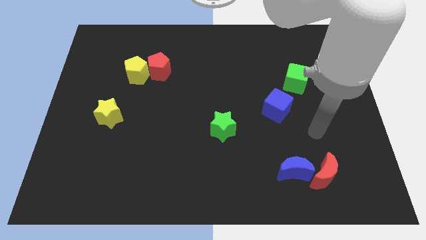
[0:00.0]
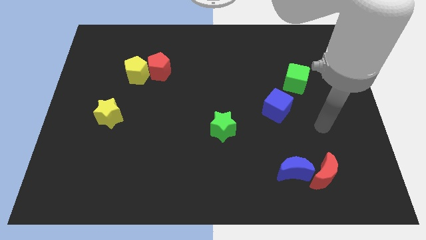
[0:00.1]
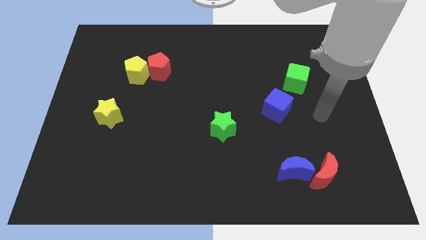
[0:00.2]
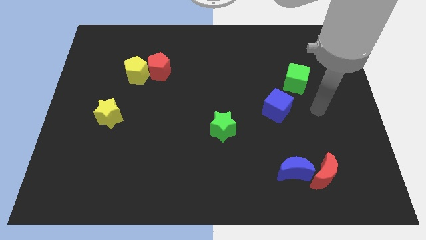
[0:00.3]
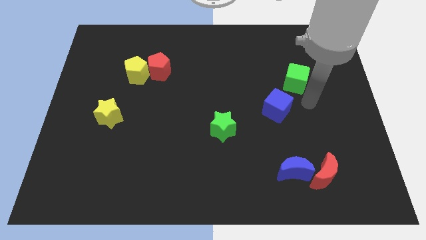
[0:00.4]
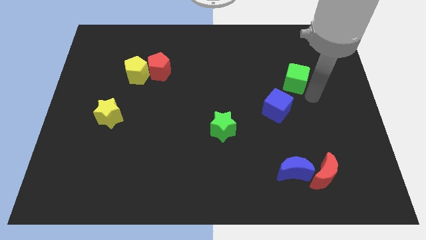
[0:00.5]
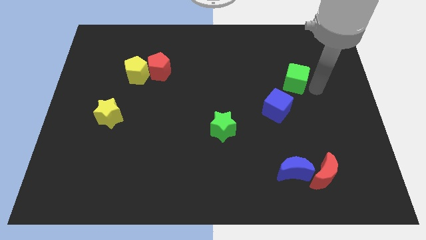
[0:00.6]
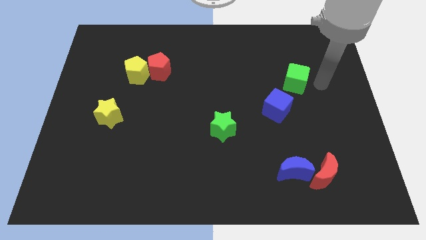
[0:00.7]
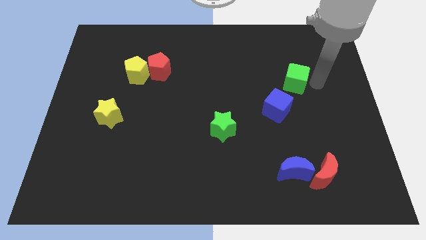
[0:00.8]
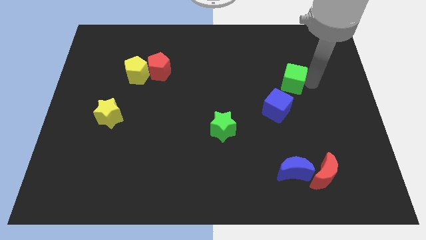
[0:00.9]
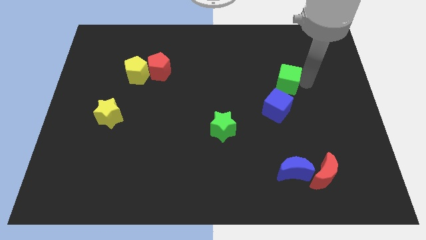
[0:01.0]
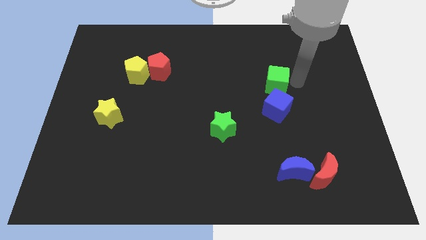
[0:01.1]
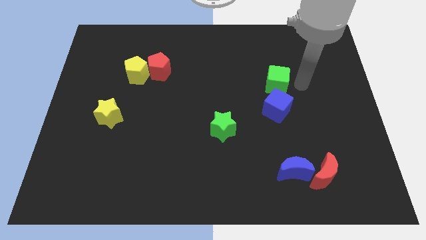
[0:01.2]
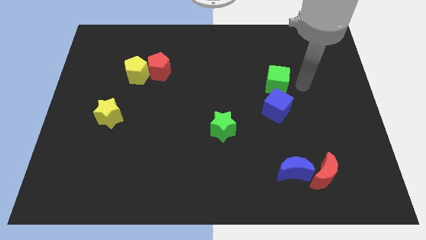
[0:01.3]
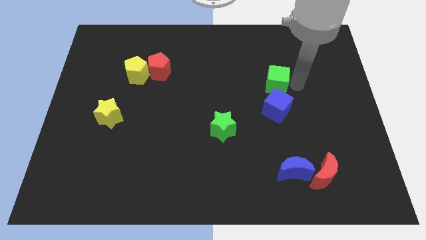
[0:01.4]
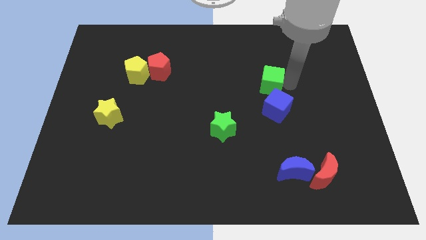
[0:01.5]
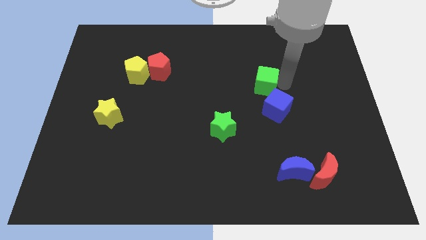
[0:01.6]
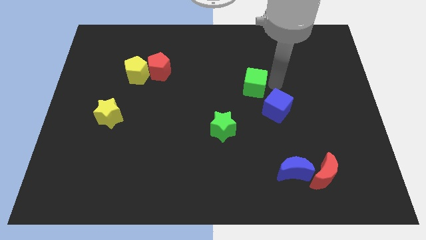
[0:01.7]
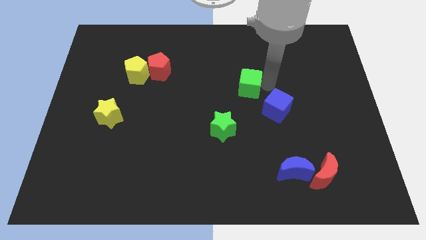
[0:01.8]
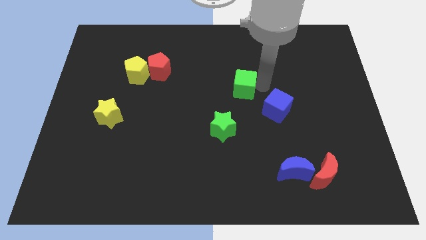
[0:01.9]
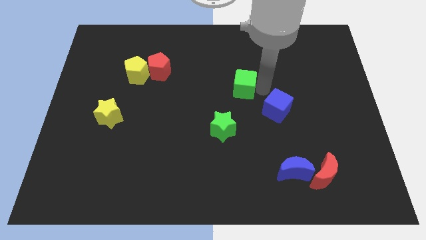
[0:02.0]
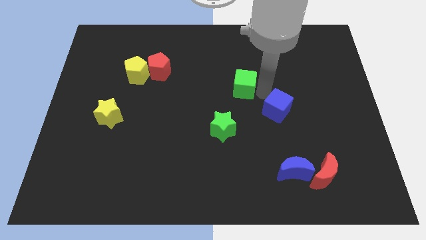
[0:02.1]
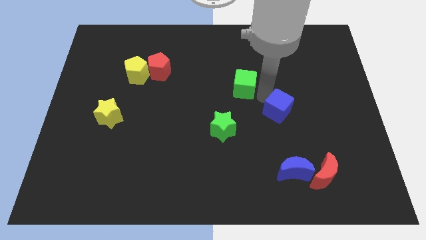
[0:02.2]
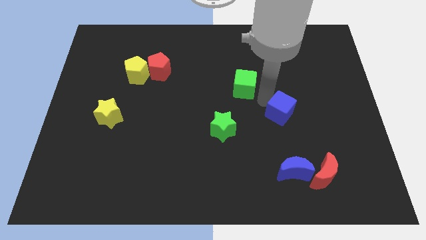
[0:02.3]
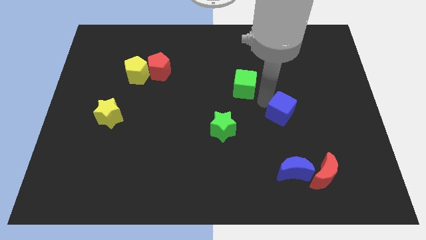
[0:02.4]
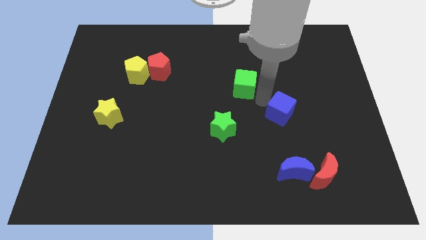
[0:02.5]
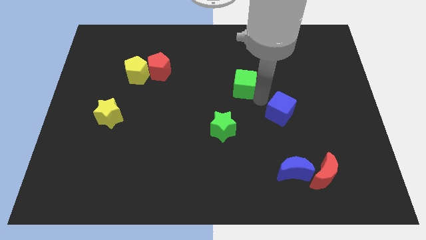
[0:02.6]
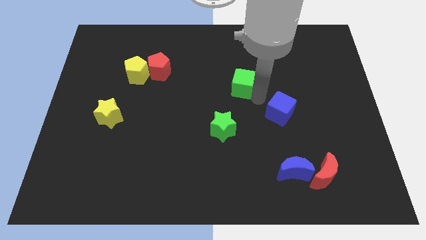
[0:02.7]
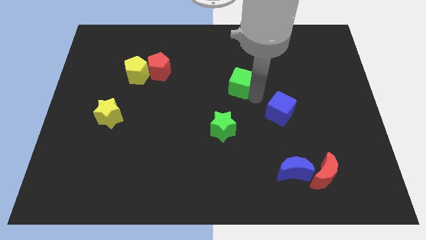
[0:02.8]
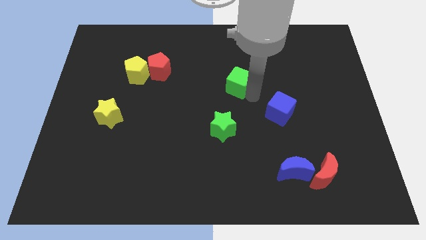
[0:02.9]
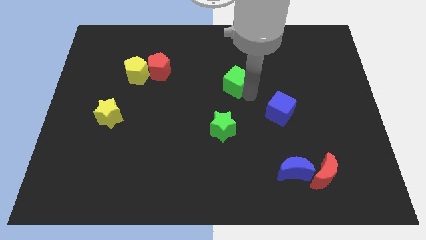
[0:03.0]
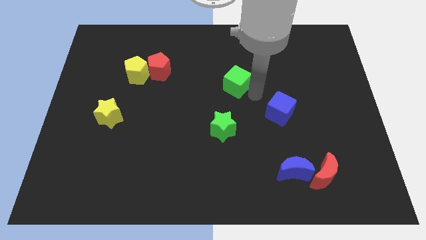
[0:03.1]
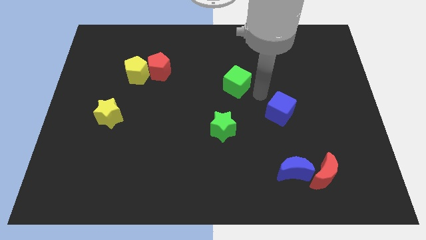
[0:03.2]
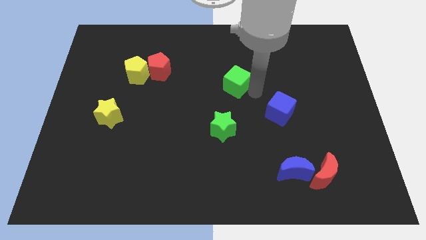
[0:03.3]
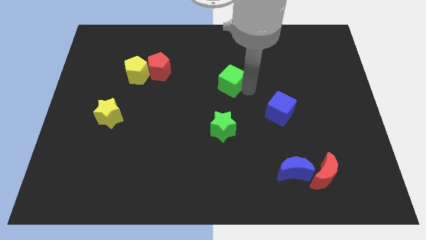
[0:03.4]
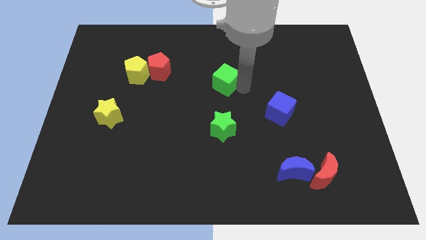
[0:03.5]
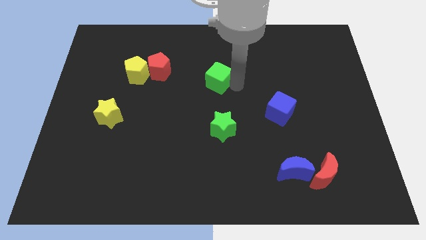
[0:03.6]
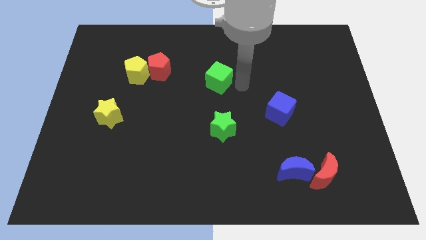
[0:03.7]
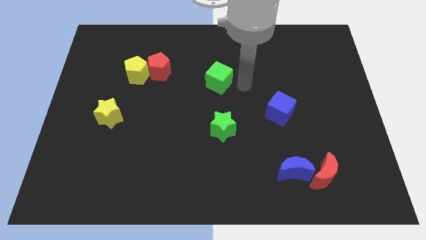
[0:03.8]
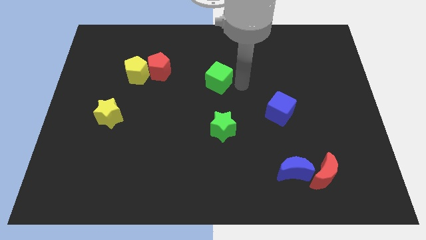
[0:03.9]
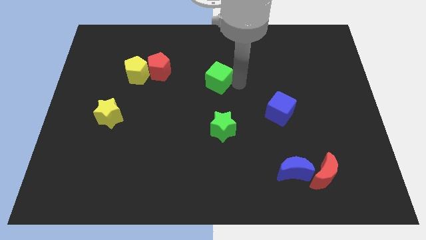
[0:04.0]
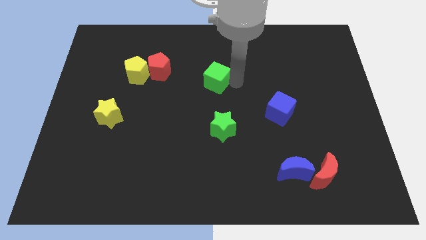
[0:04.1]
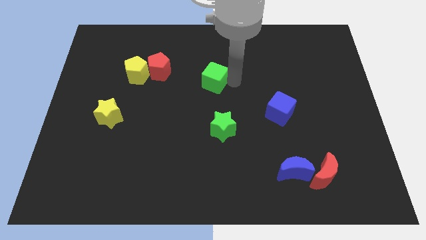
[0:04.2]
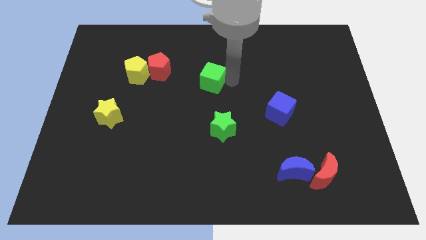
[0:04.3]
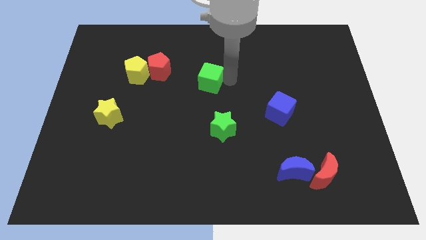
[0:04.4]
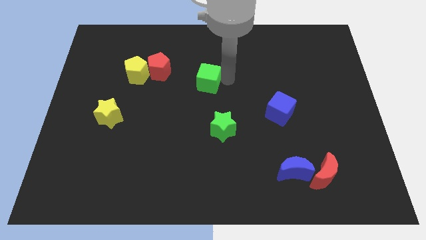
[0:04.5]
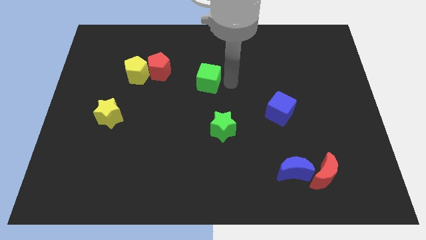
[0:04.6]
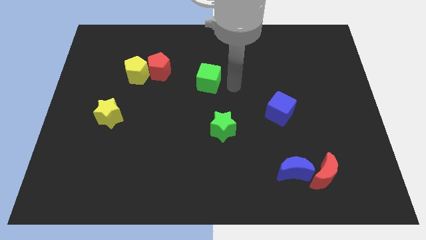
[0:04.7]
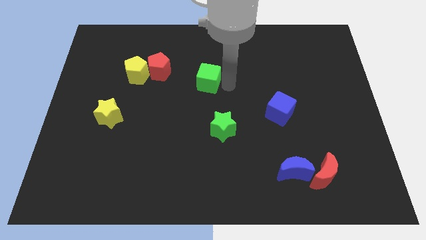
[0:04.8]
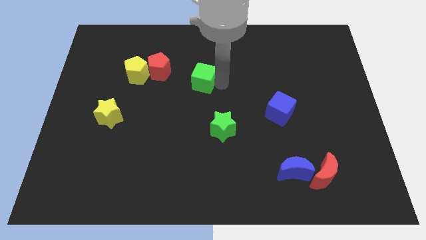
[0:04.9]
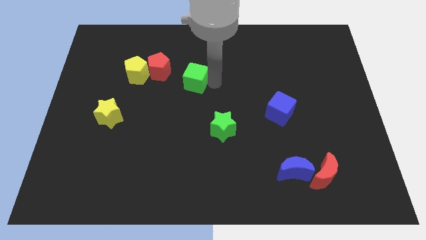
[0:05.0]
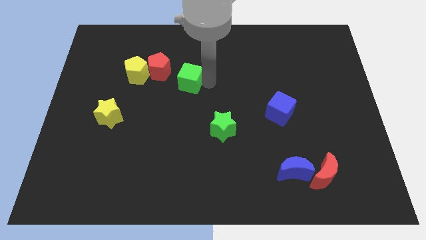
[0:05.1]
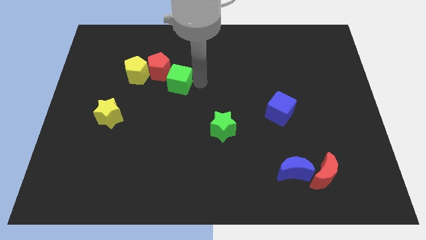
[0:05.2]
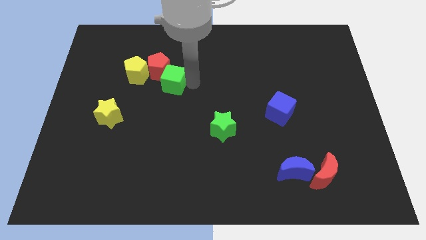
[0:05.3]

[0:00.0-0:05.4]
push the green cube close to the red pentagon

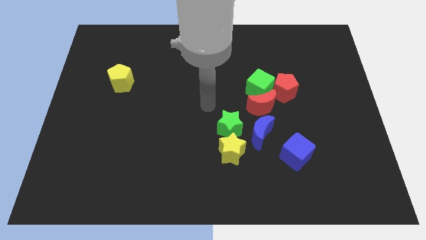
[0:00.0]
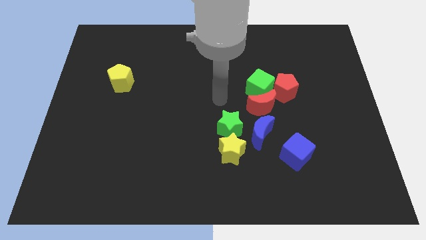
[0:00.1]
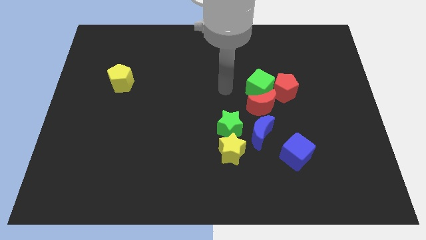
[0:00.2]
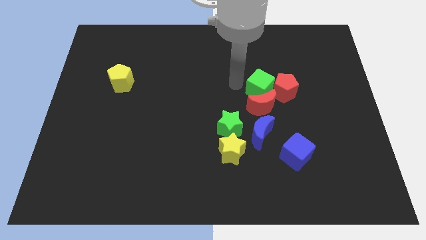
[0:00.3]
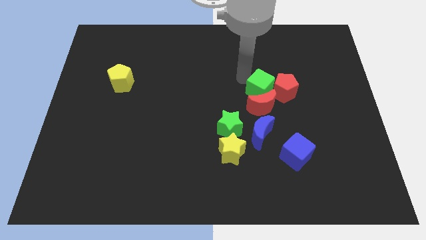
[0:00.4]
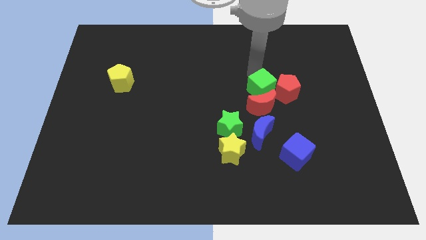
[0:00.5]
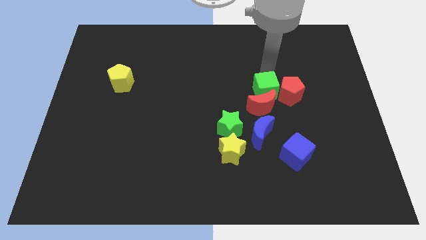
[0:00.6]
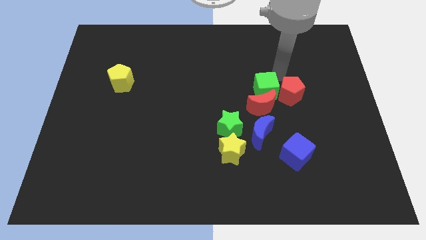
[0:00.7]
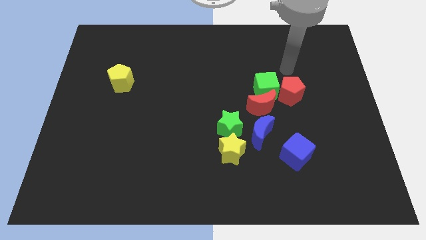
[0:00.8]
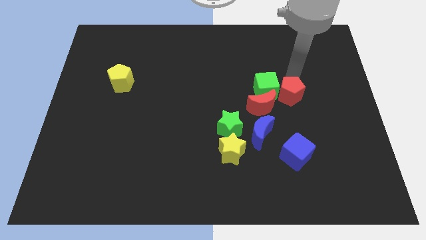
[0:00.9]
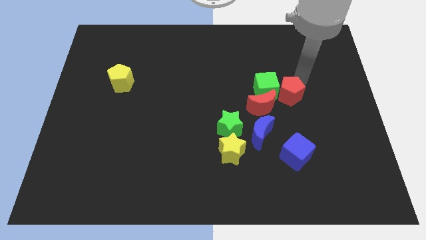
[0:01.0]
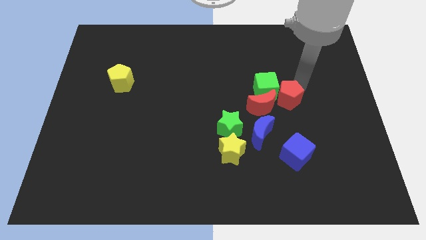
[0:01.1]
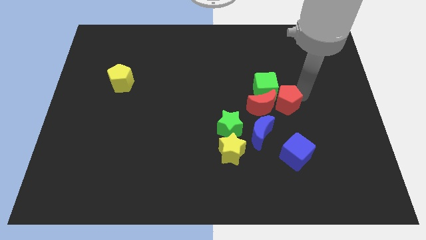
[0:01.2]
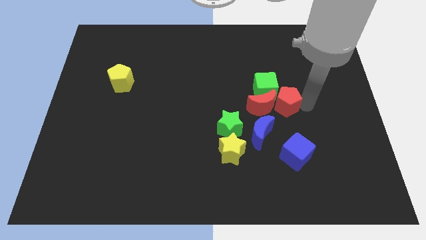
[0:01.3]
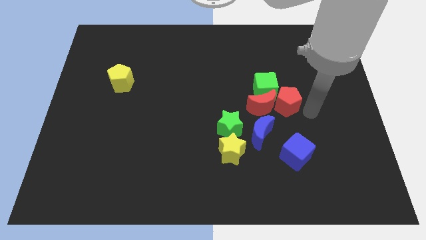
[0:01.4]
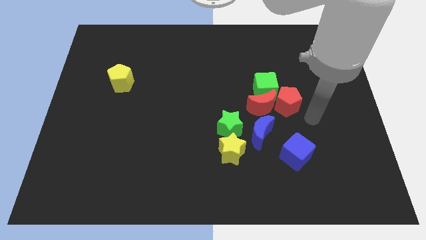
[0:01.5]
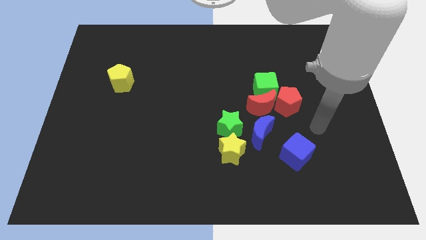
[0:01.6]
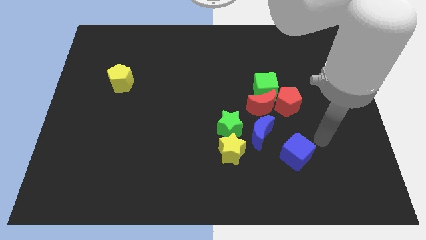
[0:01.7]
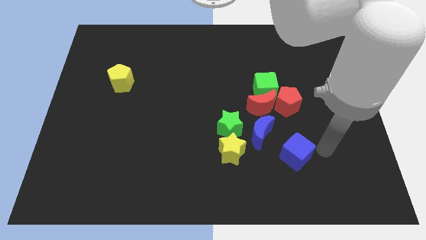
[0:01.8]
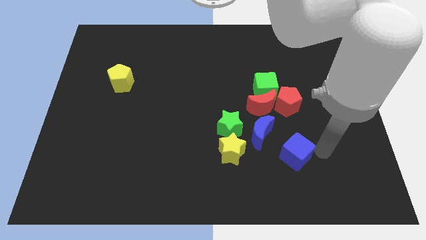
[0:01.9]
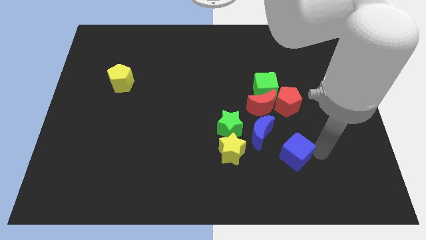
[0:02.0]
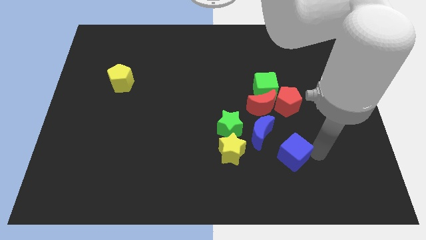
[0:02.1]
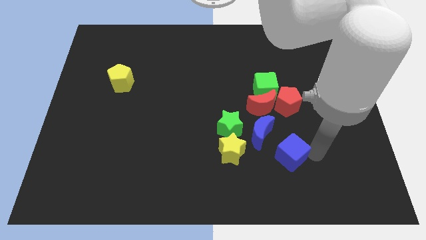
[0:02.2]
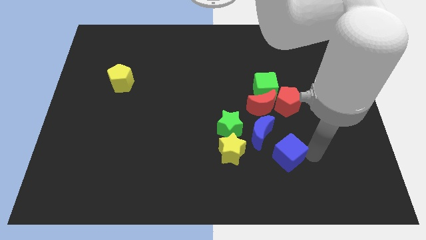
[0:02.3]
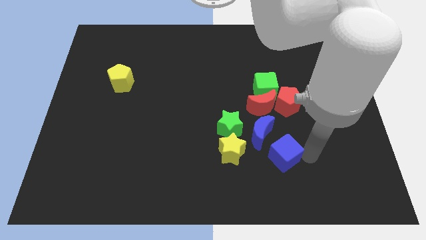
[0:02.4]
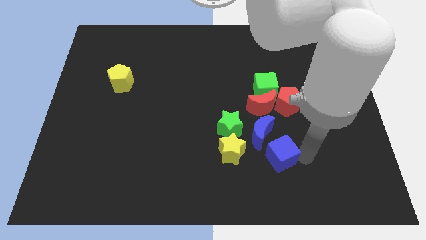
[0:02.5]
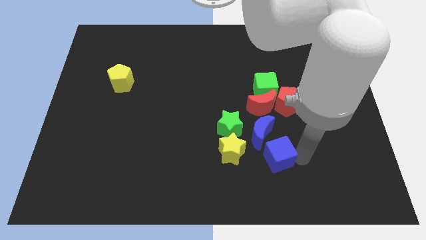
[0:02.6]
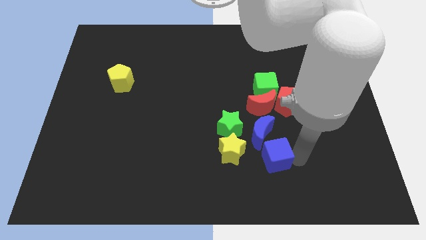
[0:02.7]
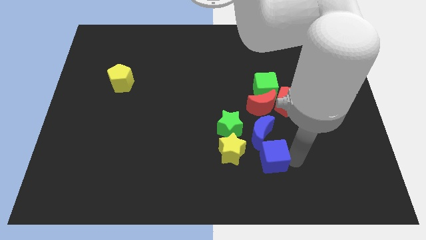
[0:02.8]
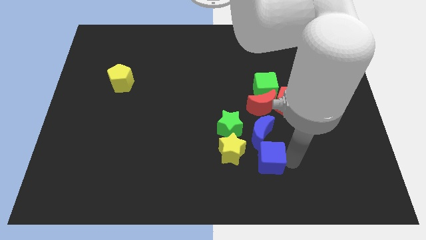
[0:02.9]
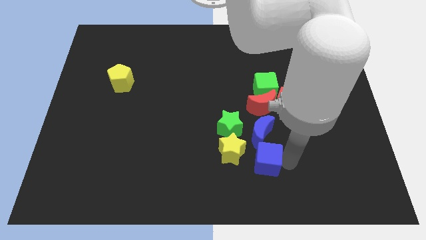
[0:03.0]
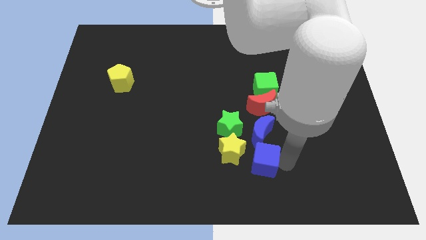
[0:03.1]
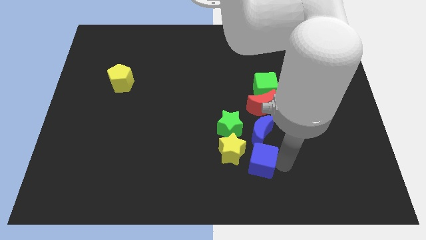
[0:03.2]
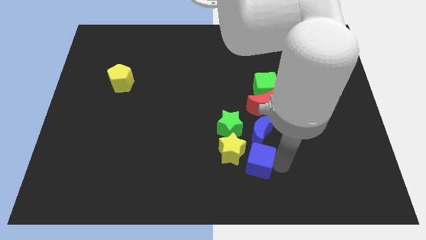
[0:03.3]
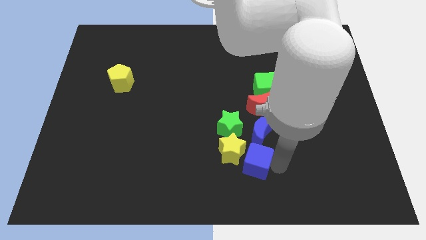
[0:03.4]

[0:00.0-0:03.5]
move the blue cube towards the yellow star
